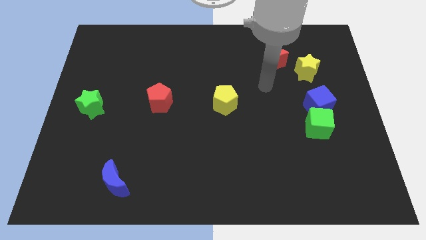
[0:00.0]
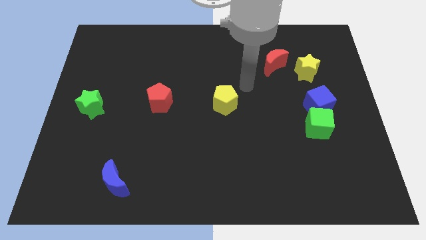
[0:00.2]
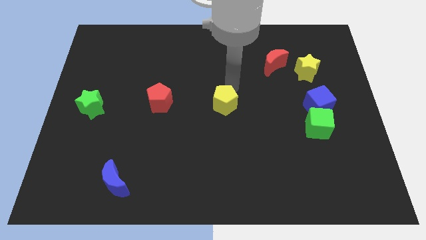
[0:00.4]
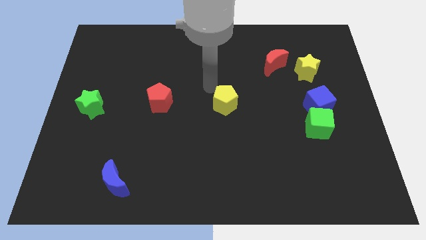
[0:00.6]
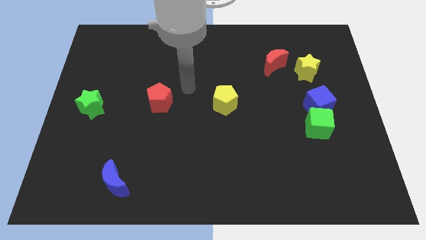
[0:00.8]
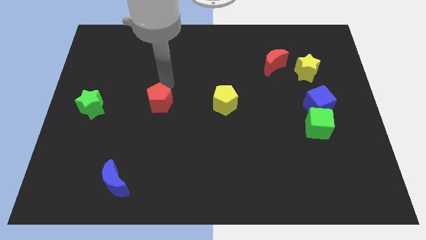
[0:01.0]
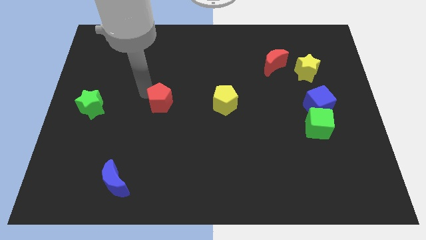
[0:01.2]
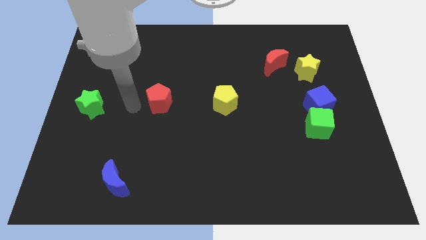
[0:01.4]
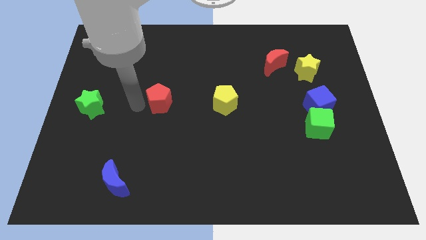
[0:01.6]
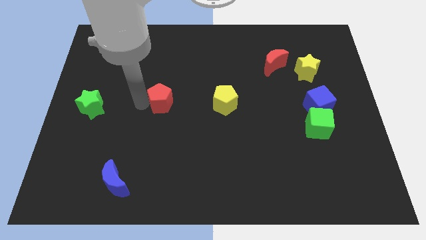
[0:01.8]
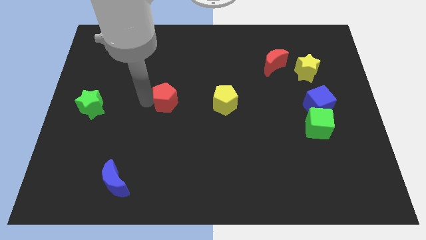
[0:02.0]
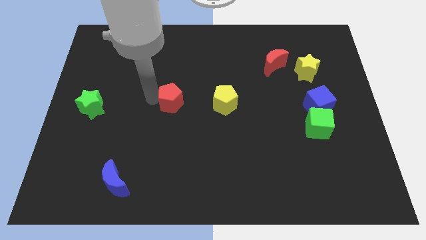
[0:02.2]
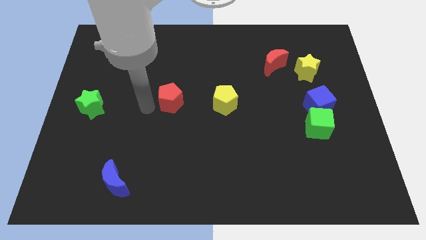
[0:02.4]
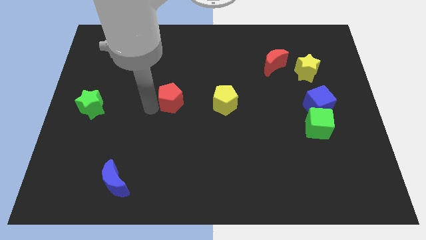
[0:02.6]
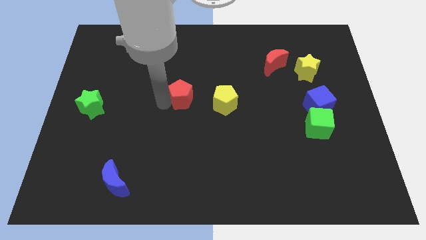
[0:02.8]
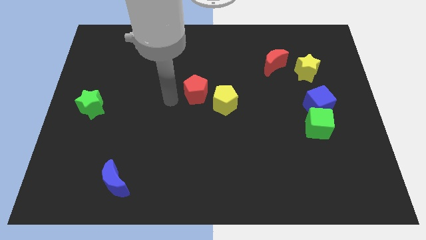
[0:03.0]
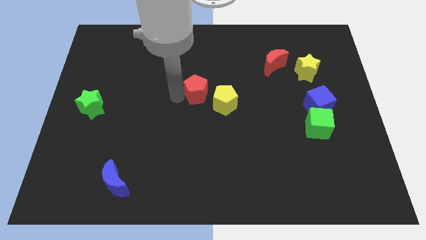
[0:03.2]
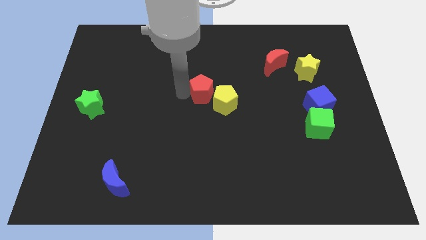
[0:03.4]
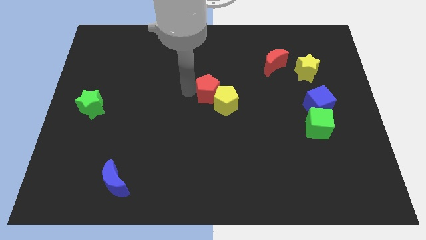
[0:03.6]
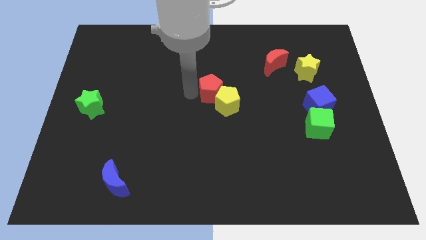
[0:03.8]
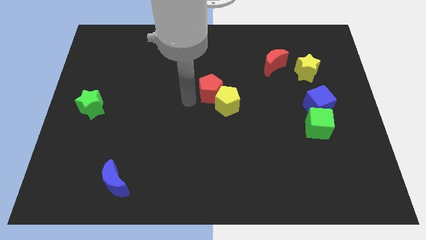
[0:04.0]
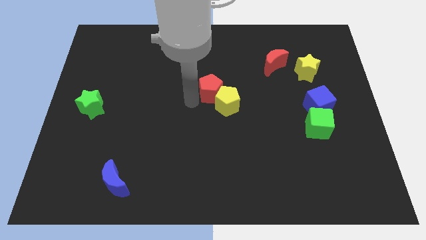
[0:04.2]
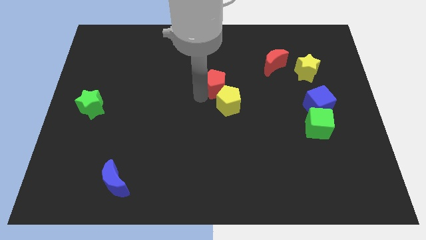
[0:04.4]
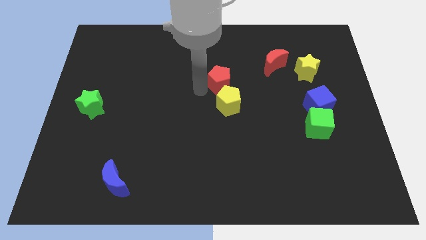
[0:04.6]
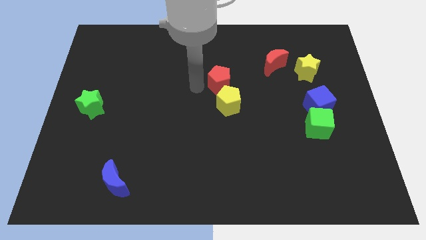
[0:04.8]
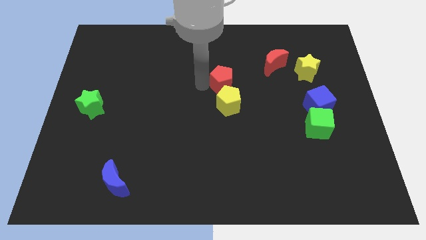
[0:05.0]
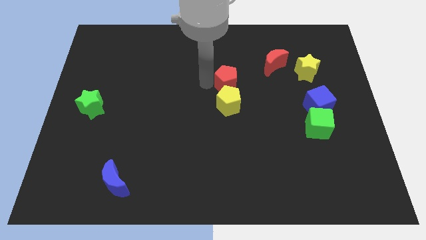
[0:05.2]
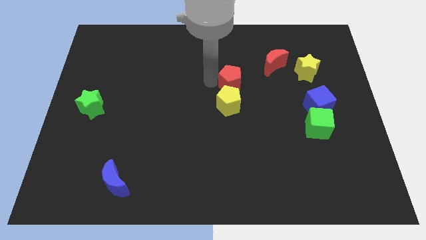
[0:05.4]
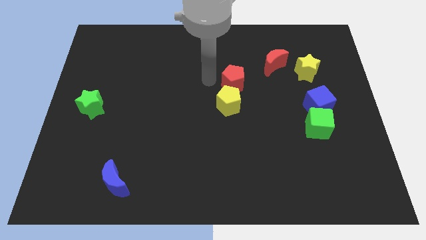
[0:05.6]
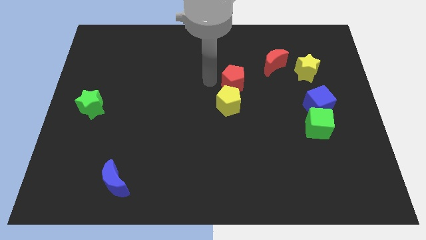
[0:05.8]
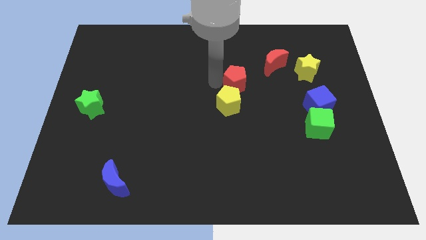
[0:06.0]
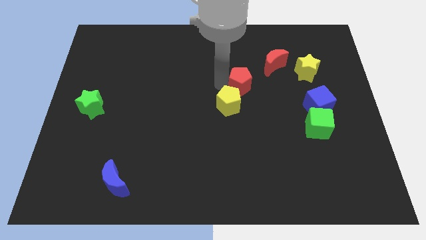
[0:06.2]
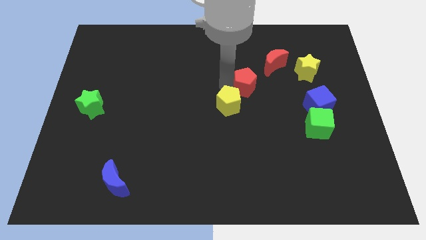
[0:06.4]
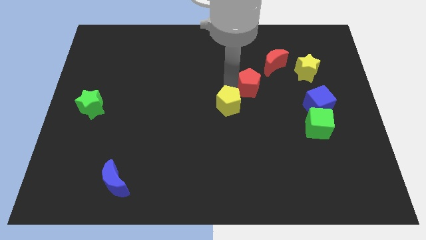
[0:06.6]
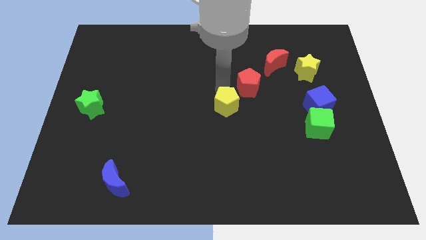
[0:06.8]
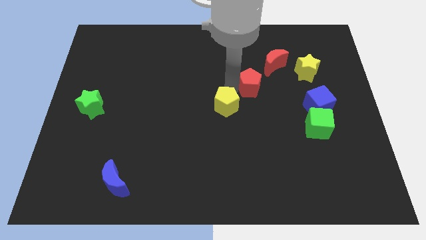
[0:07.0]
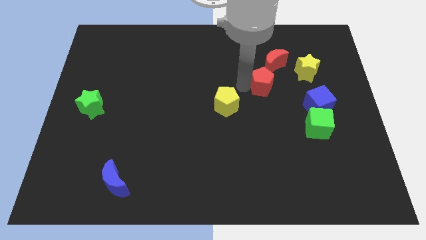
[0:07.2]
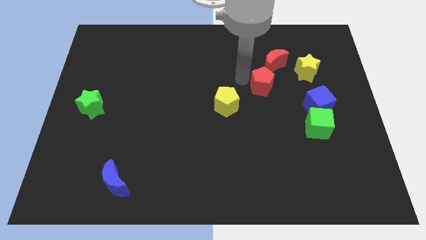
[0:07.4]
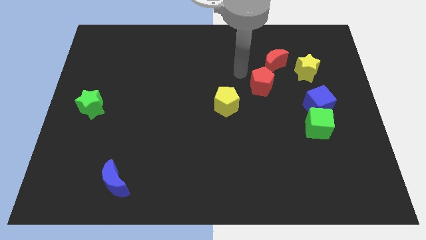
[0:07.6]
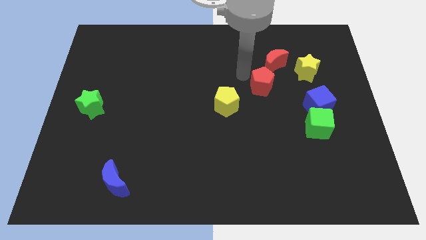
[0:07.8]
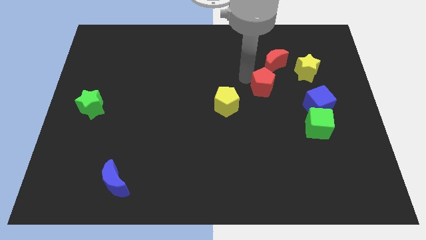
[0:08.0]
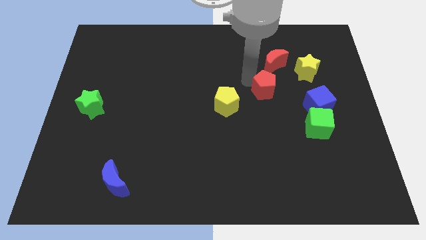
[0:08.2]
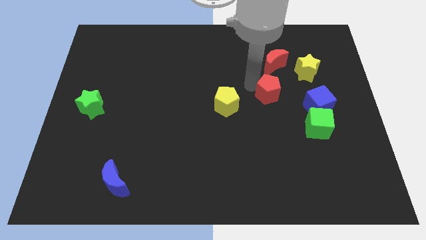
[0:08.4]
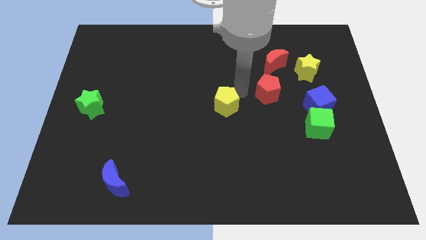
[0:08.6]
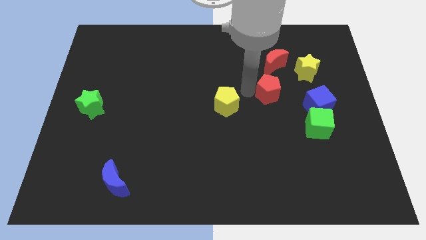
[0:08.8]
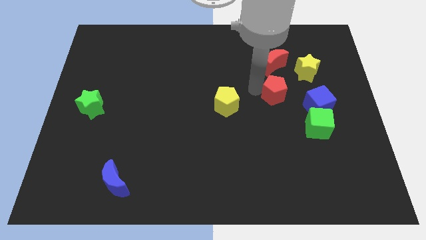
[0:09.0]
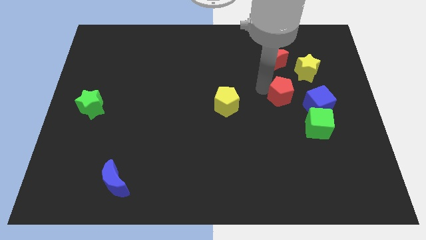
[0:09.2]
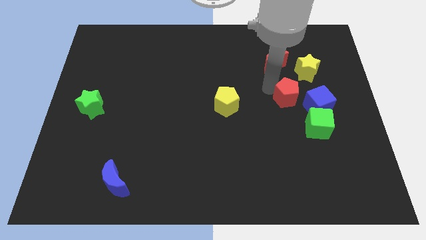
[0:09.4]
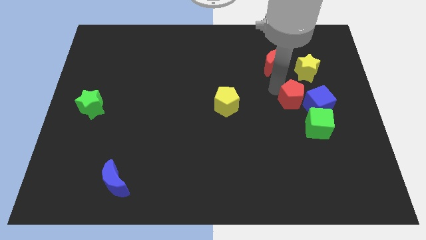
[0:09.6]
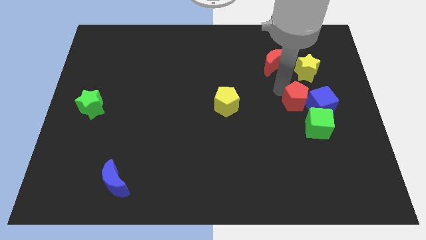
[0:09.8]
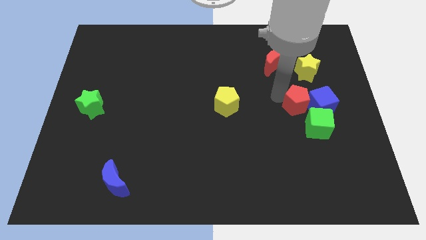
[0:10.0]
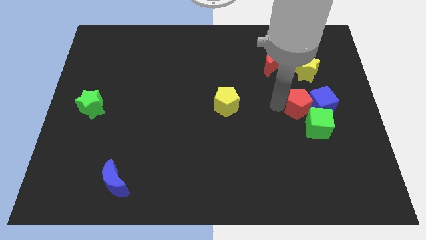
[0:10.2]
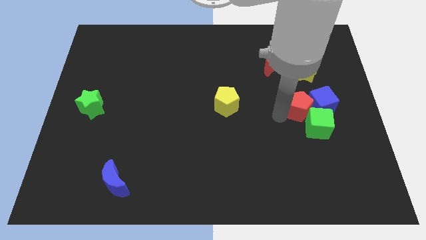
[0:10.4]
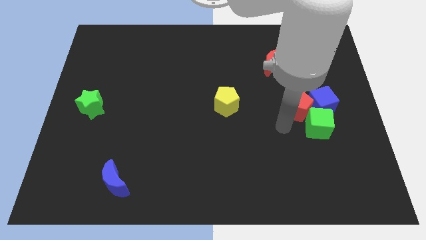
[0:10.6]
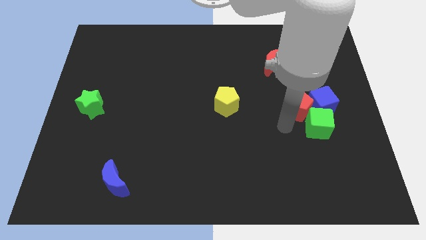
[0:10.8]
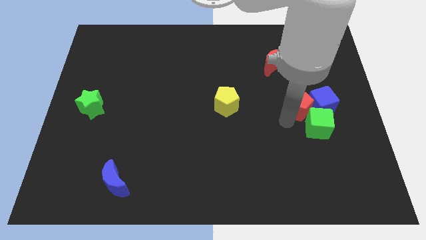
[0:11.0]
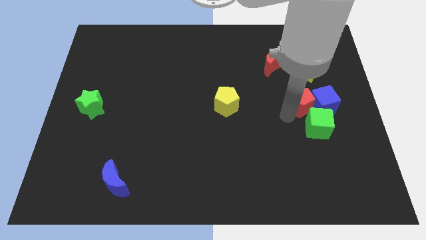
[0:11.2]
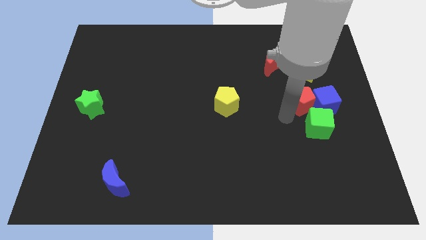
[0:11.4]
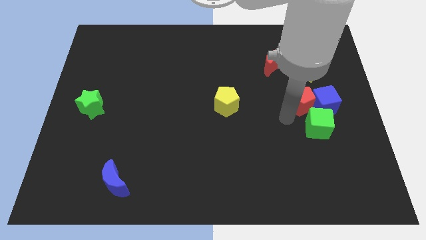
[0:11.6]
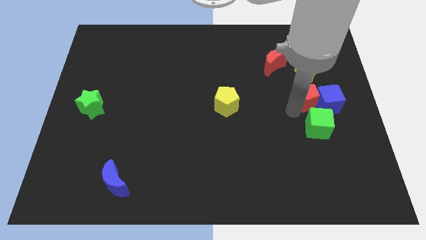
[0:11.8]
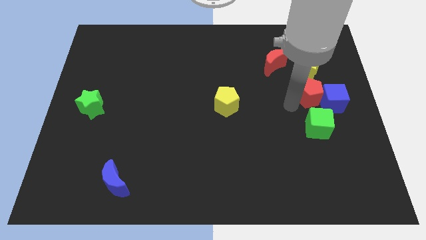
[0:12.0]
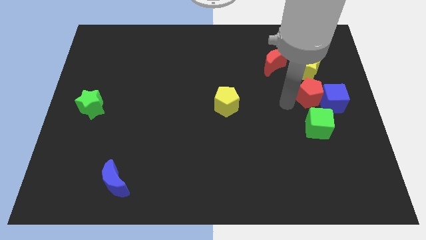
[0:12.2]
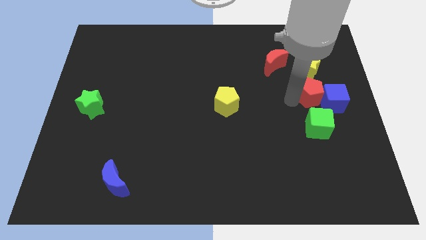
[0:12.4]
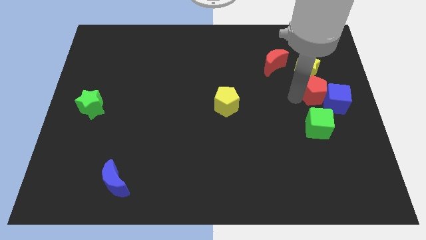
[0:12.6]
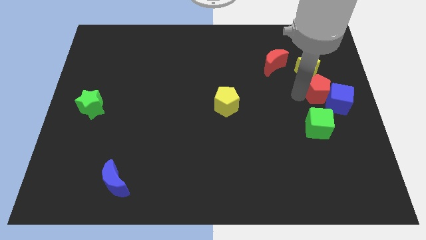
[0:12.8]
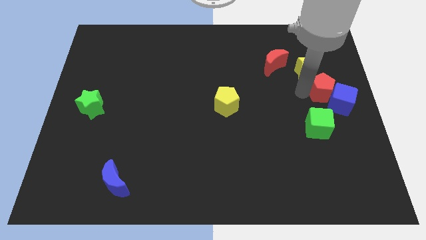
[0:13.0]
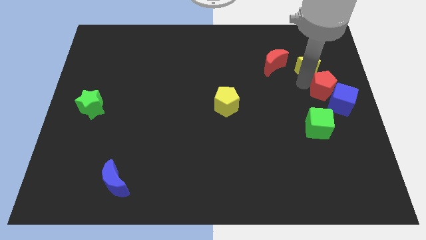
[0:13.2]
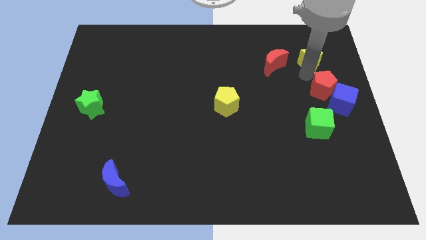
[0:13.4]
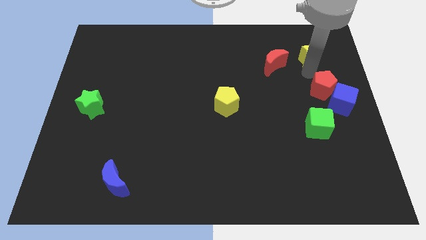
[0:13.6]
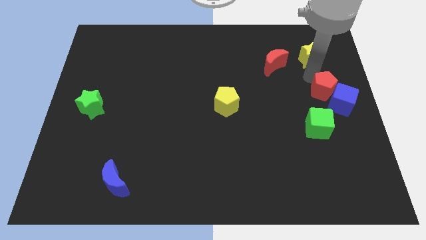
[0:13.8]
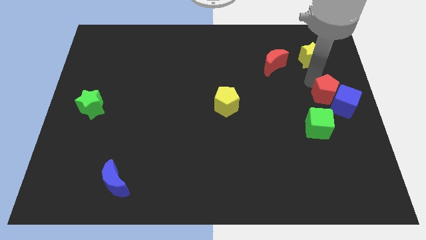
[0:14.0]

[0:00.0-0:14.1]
put the red pentagon to the top right of the green cube
